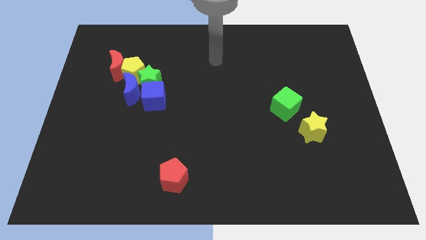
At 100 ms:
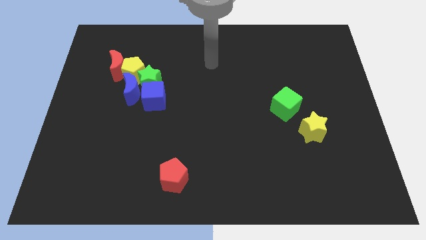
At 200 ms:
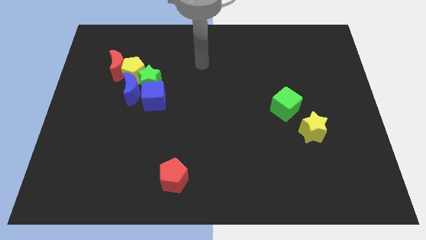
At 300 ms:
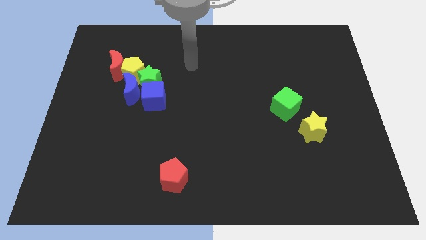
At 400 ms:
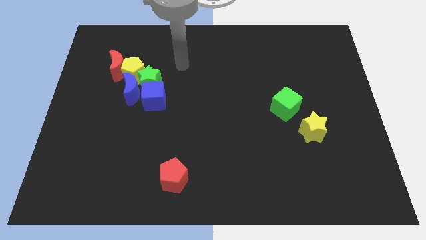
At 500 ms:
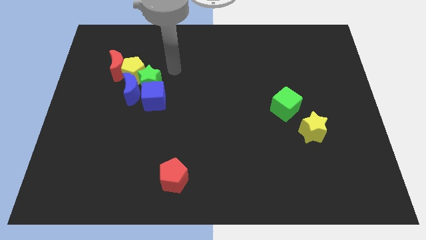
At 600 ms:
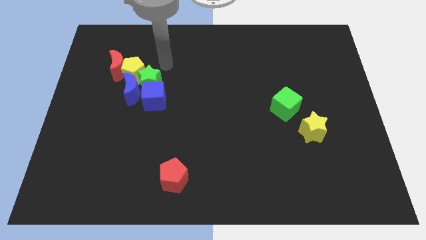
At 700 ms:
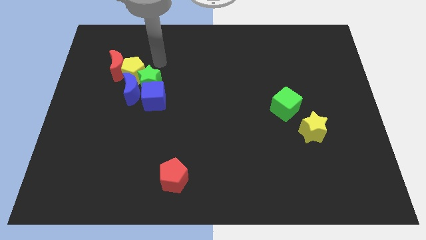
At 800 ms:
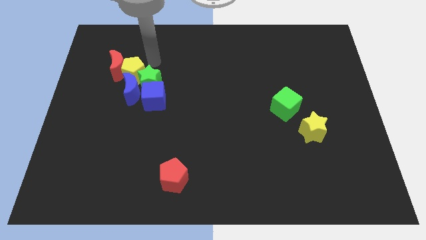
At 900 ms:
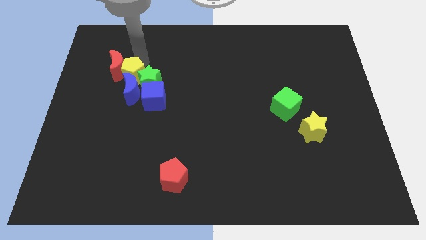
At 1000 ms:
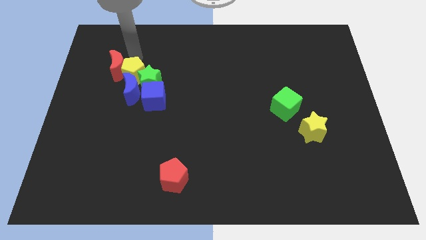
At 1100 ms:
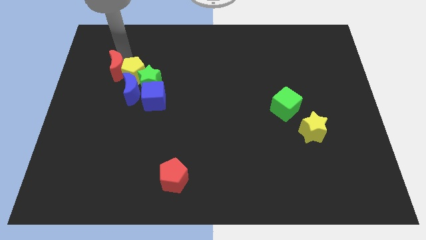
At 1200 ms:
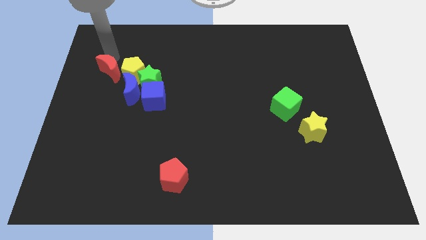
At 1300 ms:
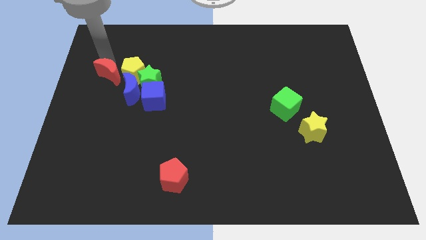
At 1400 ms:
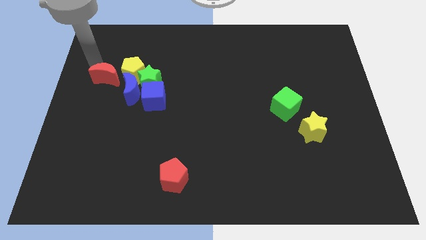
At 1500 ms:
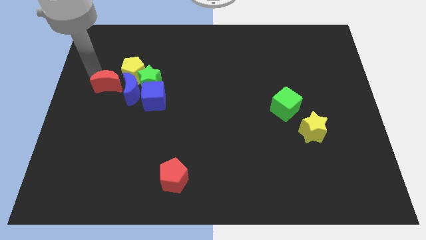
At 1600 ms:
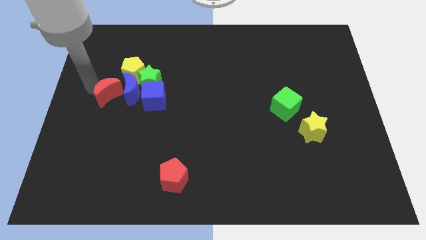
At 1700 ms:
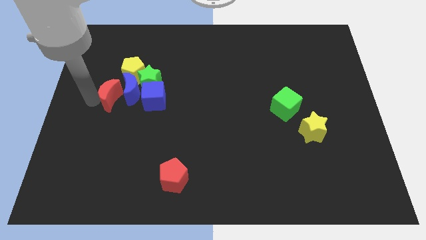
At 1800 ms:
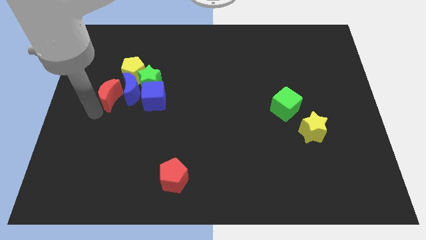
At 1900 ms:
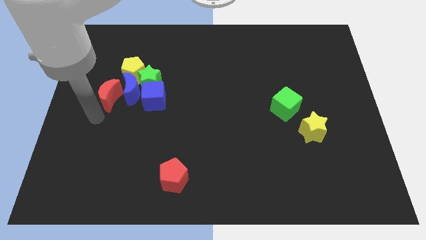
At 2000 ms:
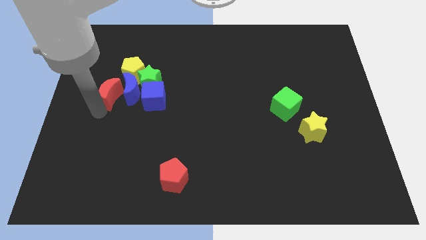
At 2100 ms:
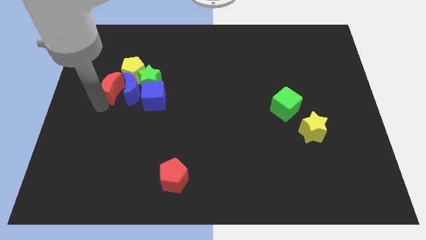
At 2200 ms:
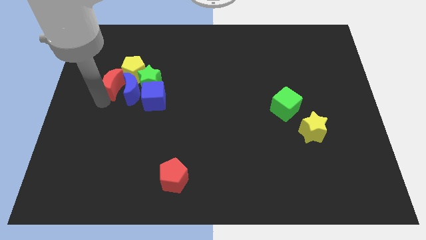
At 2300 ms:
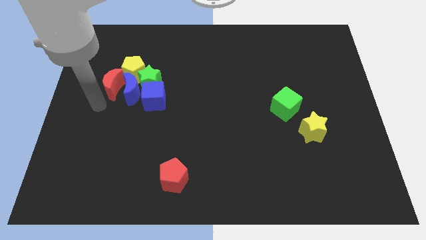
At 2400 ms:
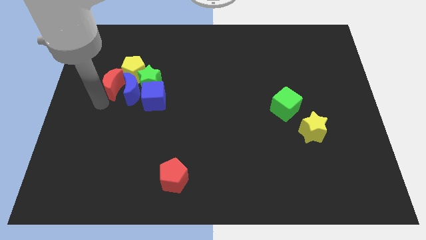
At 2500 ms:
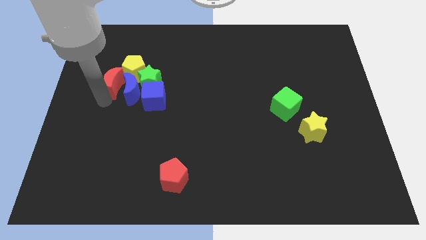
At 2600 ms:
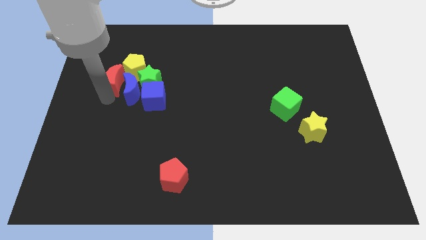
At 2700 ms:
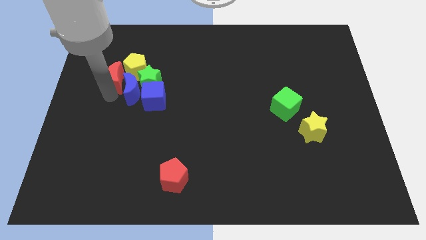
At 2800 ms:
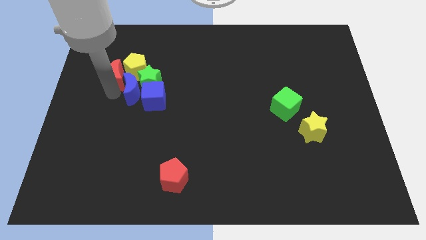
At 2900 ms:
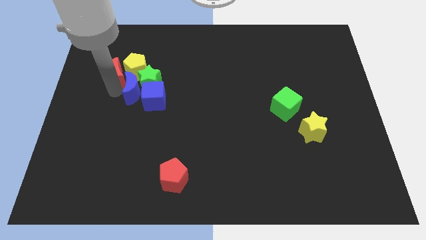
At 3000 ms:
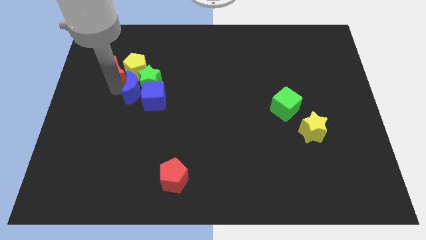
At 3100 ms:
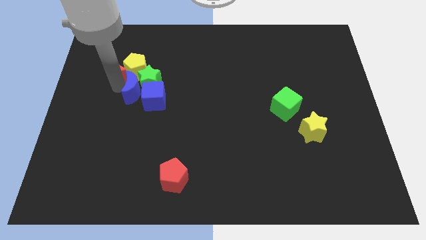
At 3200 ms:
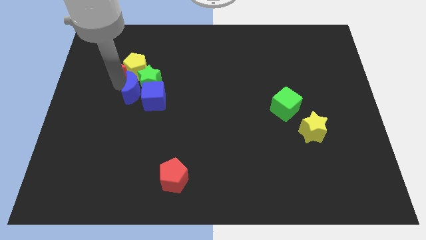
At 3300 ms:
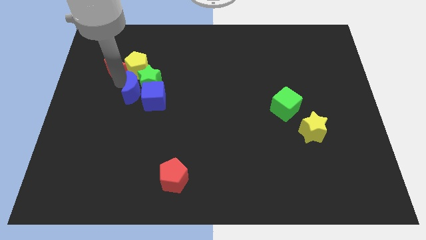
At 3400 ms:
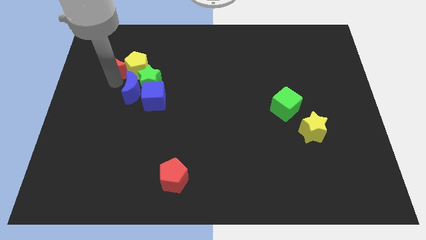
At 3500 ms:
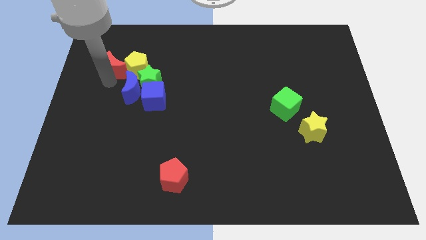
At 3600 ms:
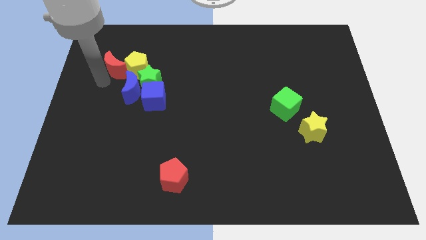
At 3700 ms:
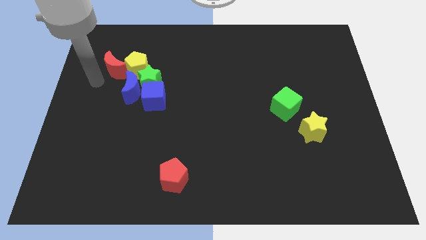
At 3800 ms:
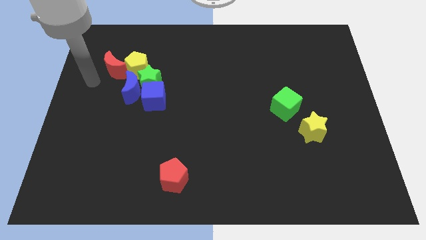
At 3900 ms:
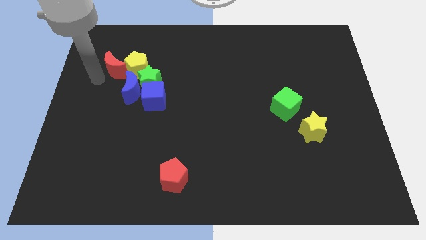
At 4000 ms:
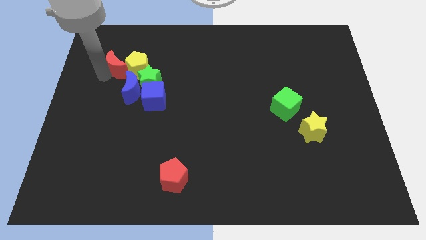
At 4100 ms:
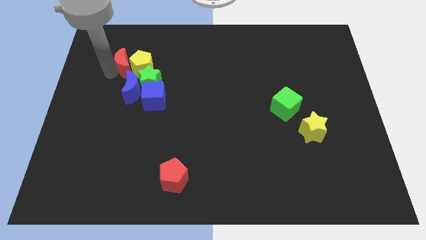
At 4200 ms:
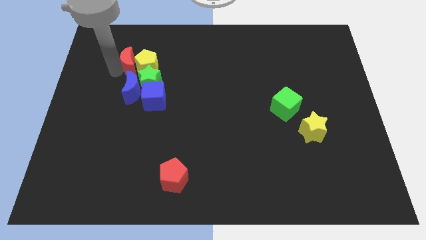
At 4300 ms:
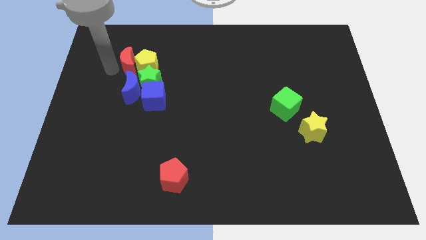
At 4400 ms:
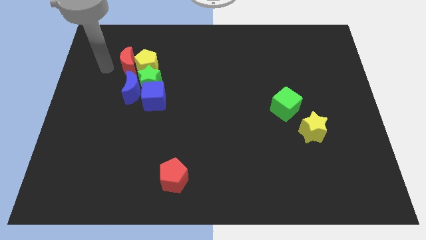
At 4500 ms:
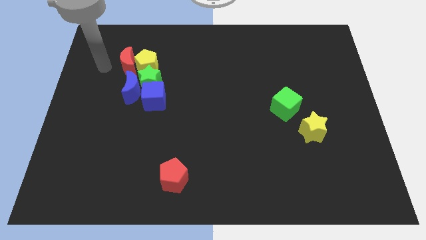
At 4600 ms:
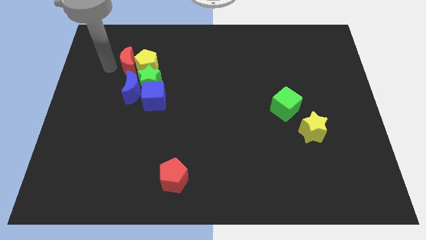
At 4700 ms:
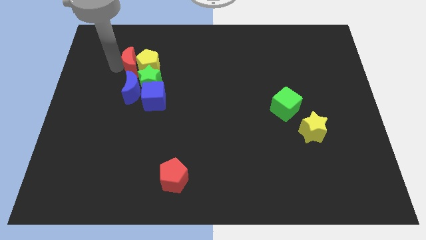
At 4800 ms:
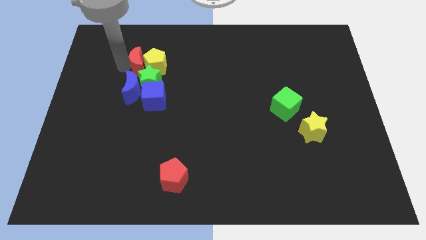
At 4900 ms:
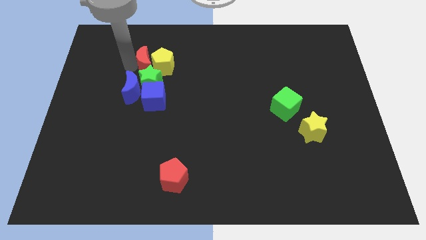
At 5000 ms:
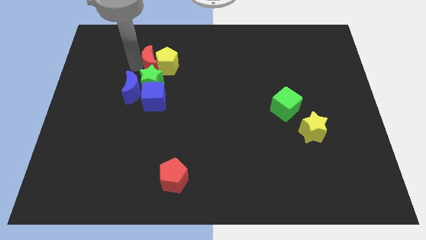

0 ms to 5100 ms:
slightly move the red moon right

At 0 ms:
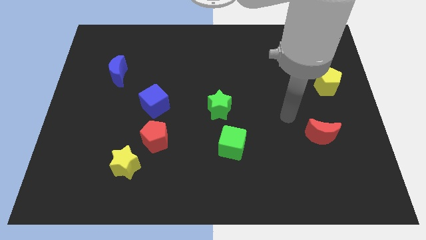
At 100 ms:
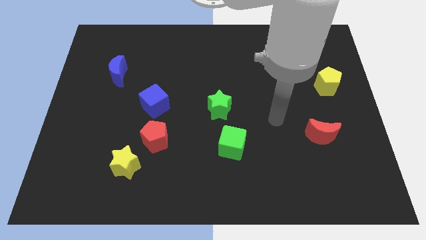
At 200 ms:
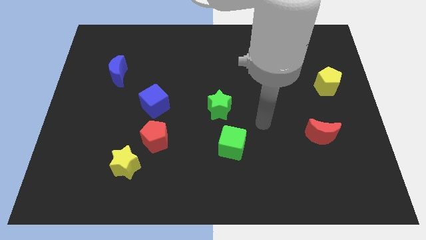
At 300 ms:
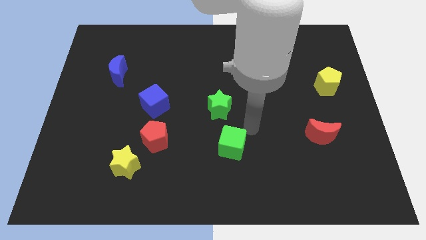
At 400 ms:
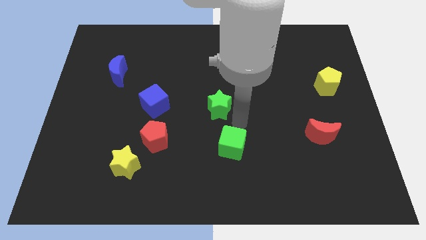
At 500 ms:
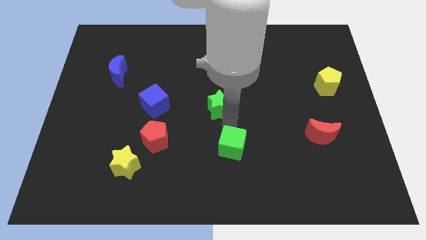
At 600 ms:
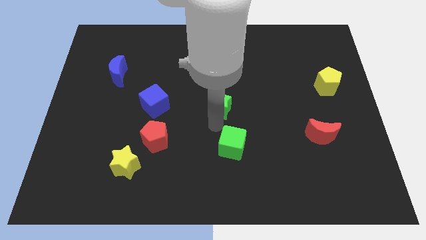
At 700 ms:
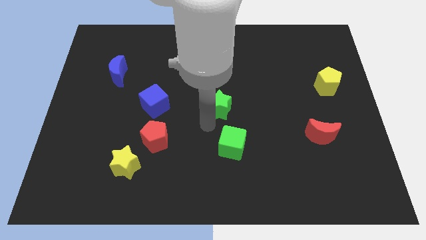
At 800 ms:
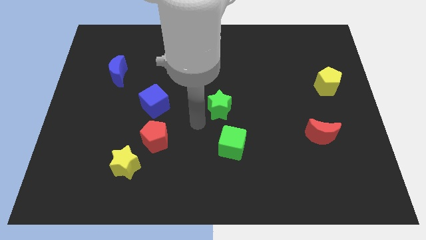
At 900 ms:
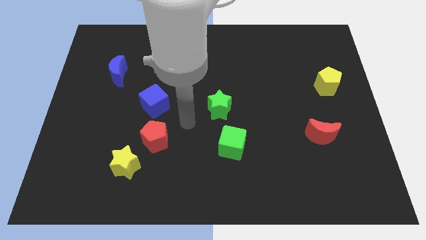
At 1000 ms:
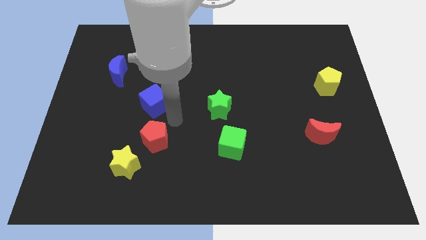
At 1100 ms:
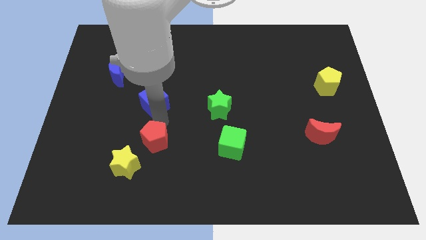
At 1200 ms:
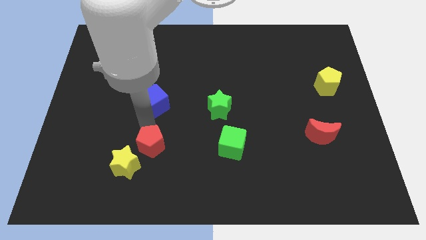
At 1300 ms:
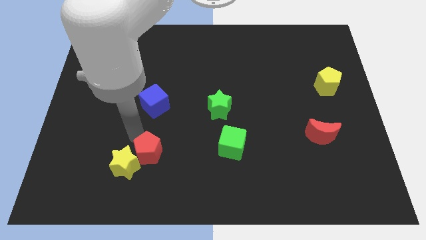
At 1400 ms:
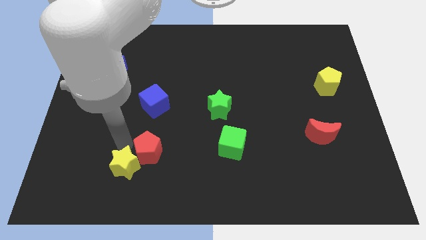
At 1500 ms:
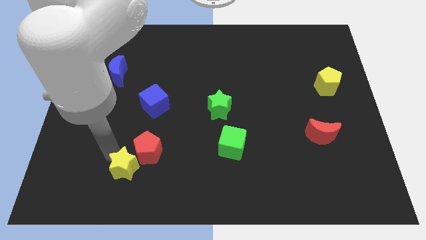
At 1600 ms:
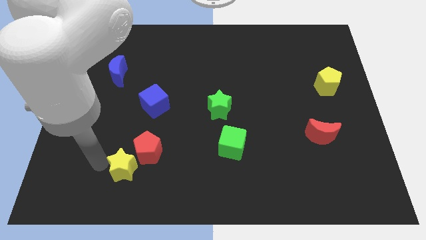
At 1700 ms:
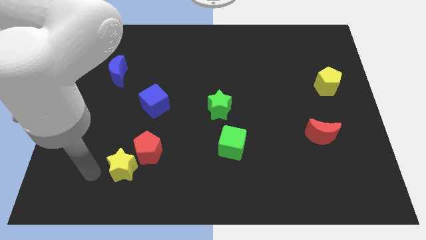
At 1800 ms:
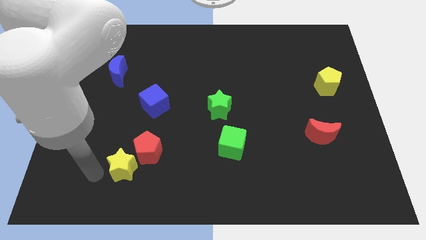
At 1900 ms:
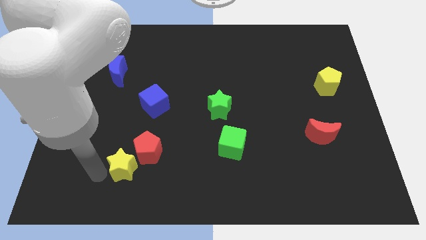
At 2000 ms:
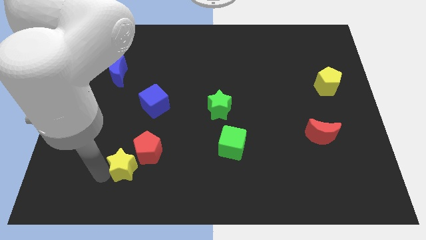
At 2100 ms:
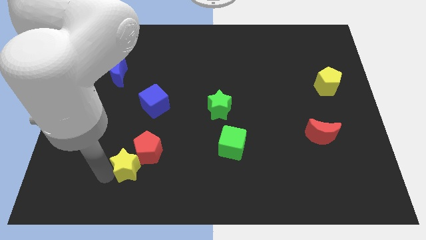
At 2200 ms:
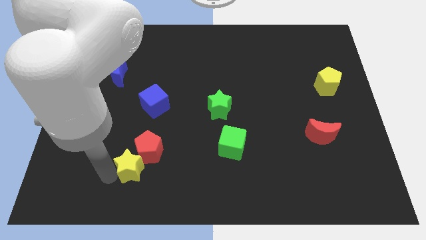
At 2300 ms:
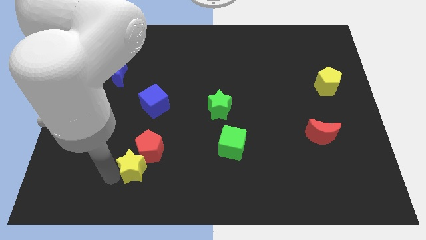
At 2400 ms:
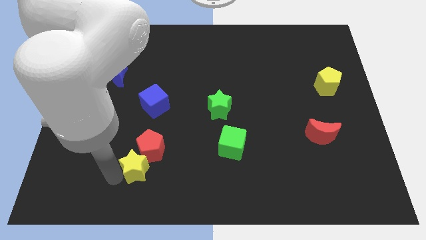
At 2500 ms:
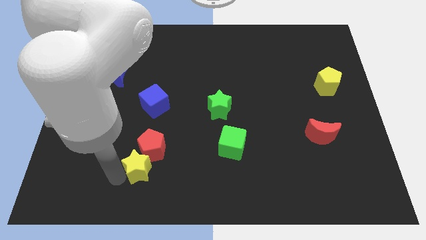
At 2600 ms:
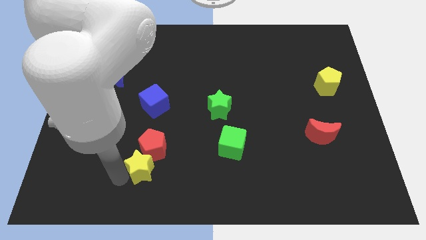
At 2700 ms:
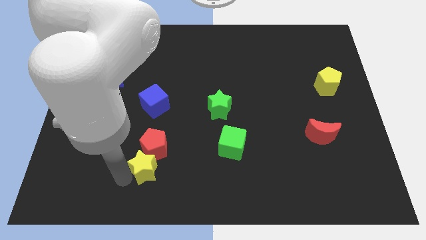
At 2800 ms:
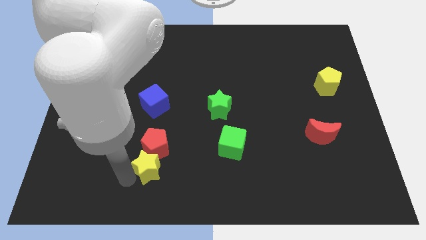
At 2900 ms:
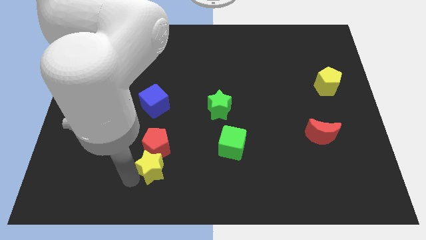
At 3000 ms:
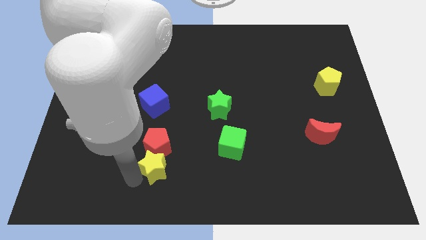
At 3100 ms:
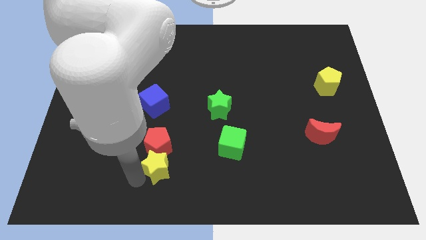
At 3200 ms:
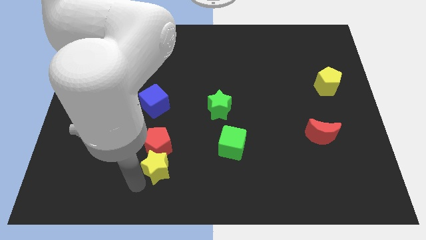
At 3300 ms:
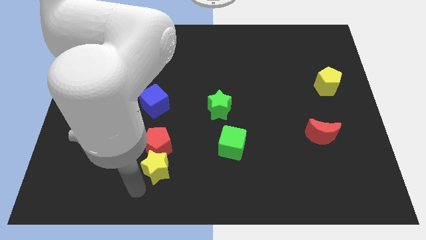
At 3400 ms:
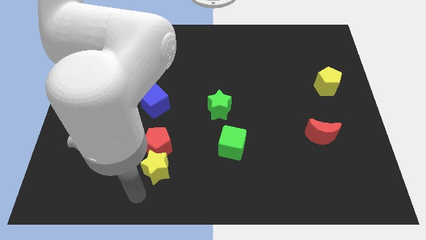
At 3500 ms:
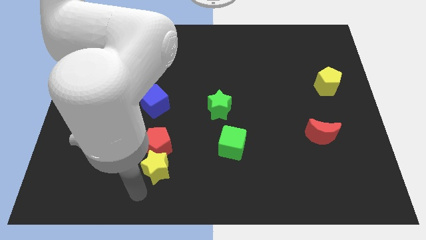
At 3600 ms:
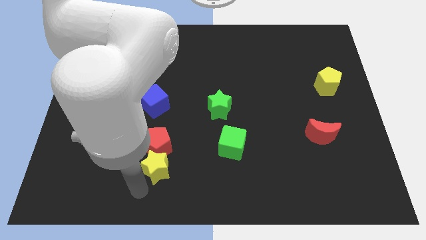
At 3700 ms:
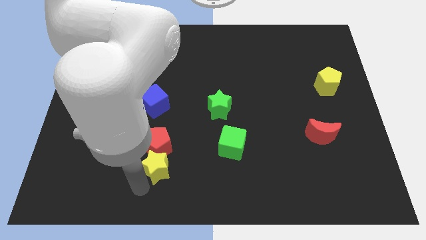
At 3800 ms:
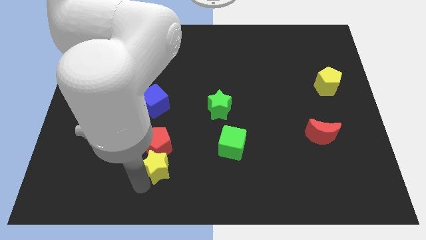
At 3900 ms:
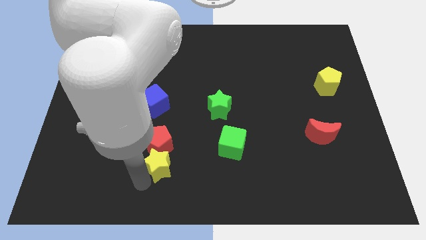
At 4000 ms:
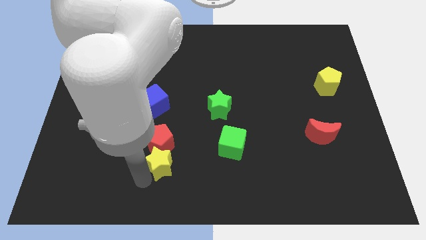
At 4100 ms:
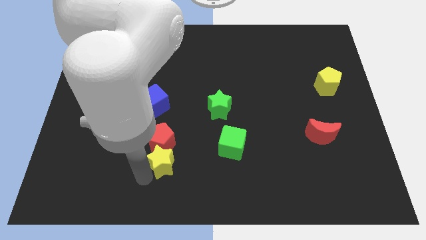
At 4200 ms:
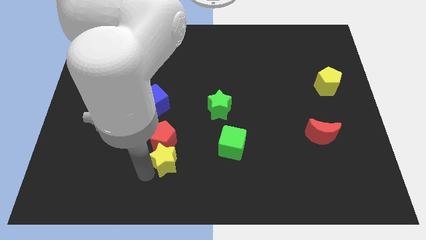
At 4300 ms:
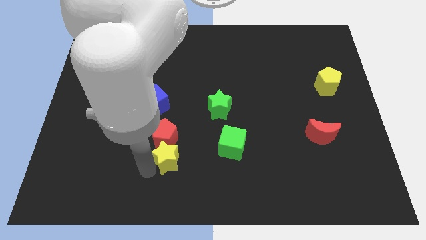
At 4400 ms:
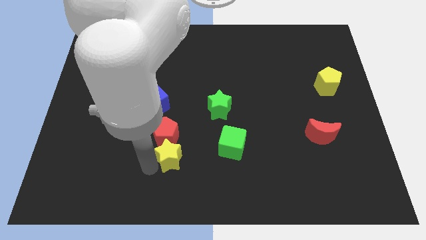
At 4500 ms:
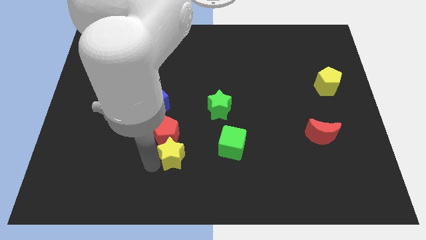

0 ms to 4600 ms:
push the yellow star upwards and then right somewhat
